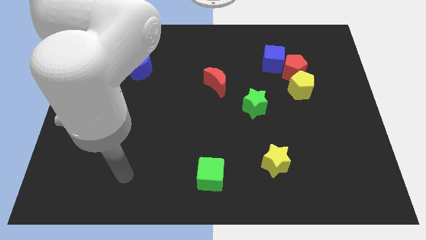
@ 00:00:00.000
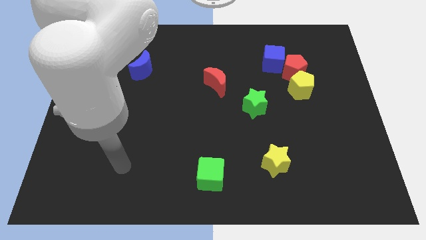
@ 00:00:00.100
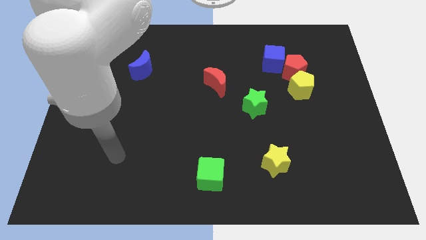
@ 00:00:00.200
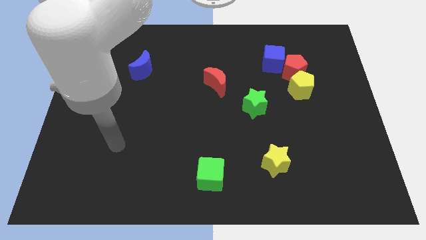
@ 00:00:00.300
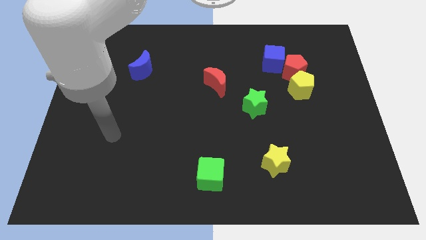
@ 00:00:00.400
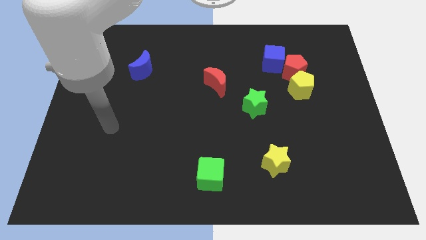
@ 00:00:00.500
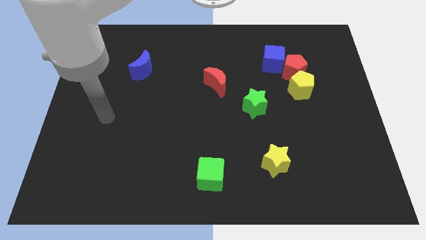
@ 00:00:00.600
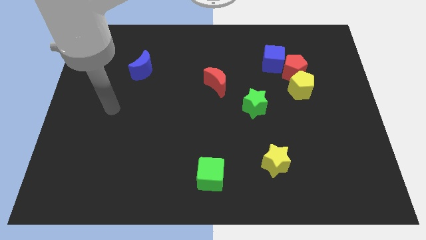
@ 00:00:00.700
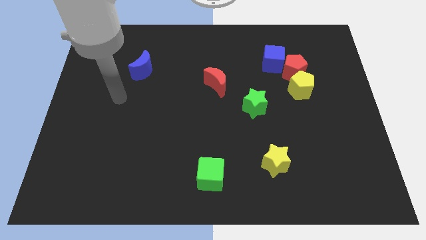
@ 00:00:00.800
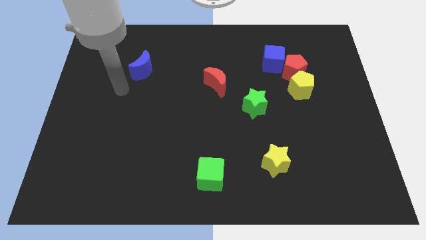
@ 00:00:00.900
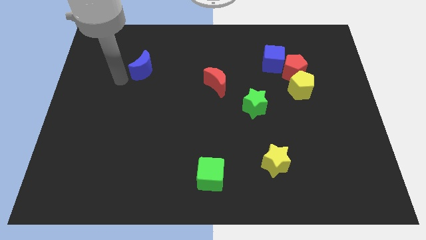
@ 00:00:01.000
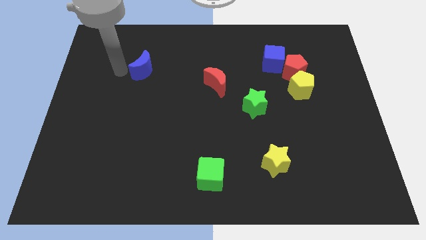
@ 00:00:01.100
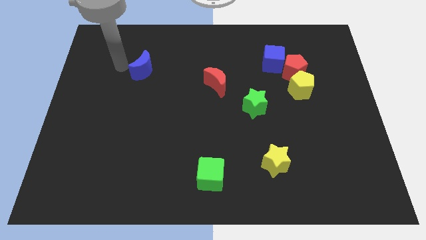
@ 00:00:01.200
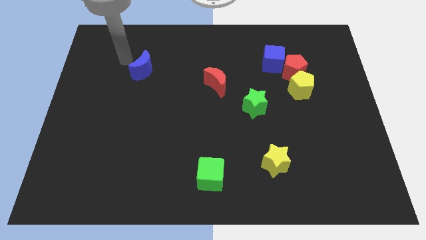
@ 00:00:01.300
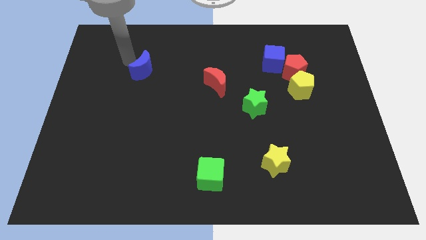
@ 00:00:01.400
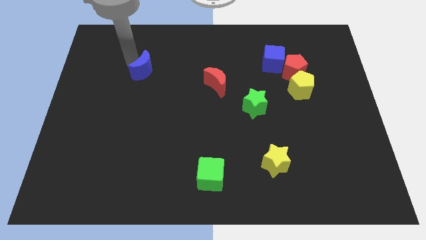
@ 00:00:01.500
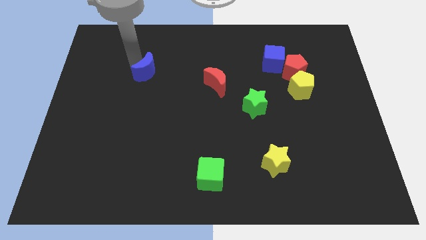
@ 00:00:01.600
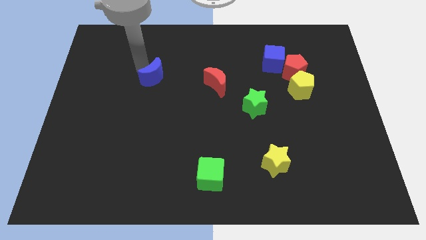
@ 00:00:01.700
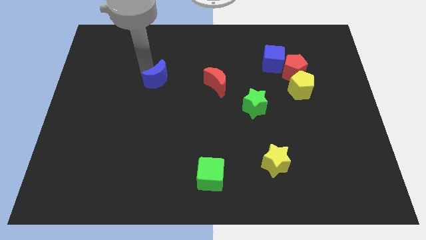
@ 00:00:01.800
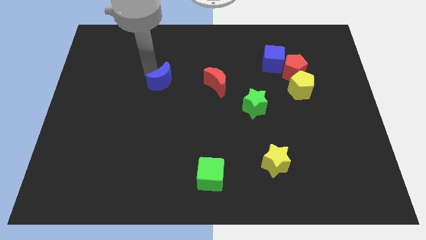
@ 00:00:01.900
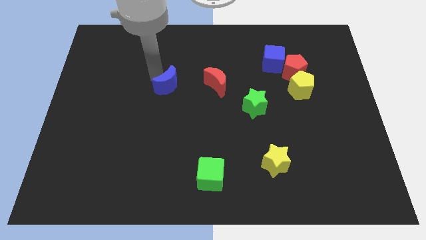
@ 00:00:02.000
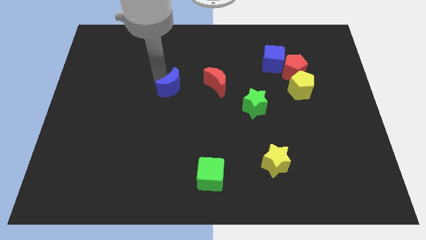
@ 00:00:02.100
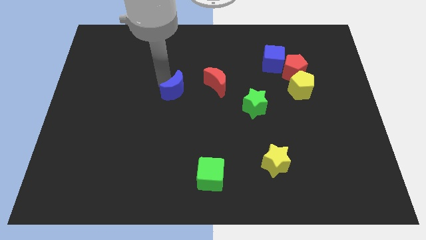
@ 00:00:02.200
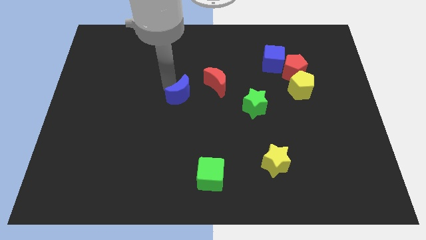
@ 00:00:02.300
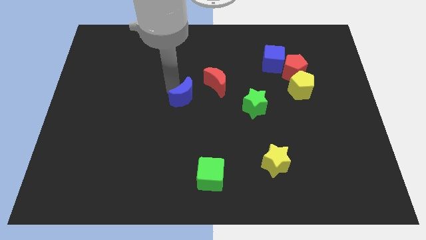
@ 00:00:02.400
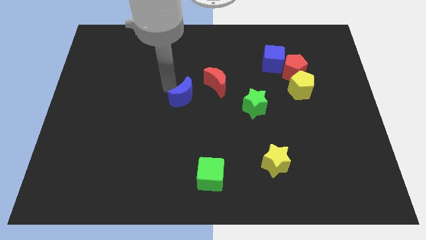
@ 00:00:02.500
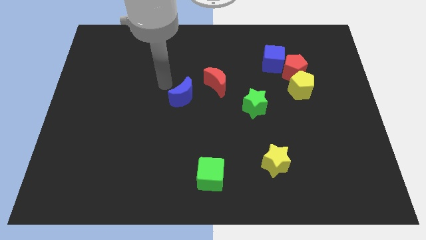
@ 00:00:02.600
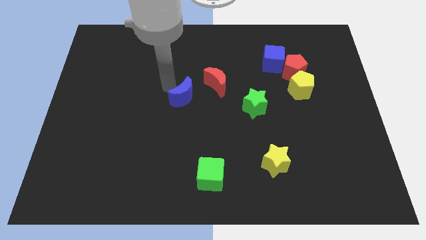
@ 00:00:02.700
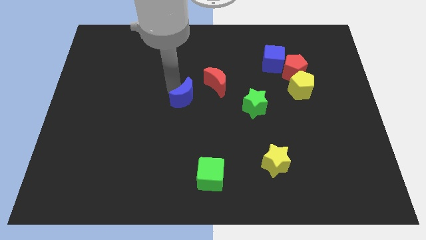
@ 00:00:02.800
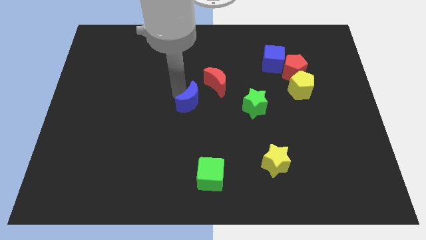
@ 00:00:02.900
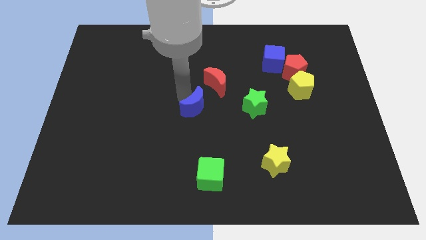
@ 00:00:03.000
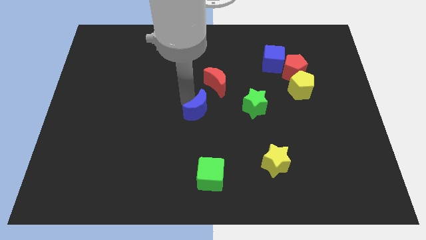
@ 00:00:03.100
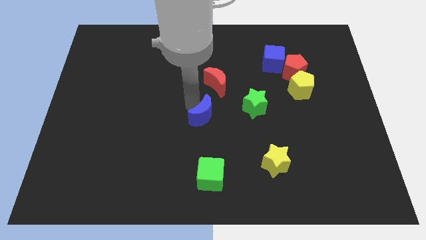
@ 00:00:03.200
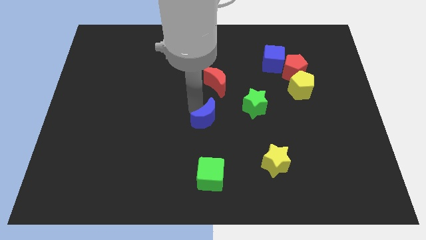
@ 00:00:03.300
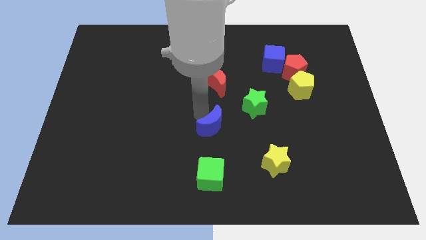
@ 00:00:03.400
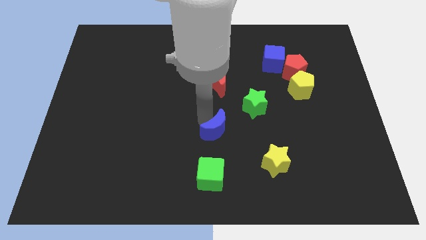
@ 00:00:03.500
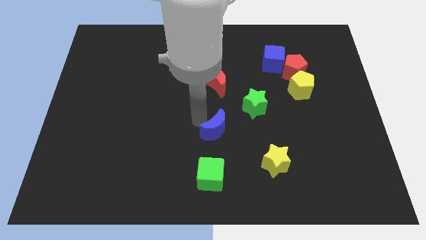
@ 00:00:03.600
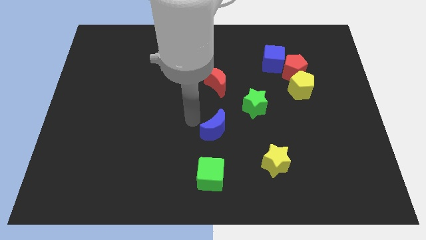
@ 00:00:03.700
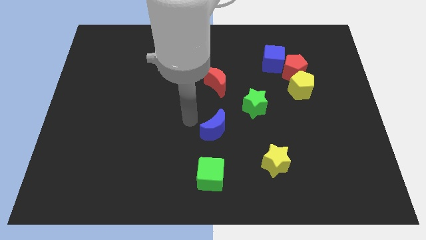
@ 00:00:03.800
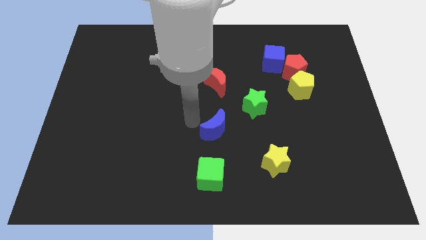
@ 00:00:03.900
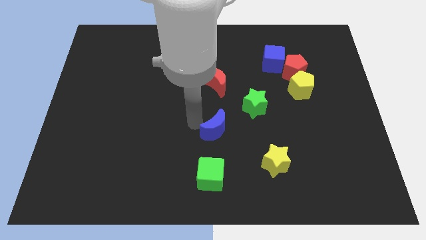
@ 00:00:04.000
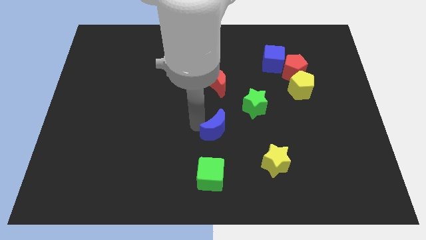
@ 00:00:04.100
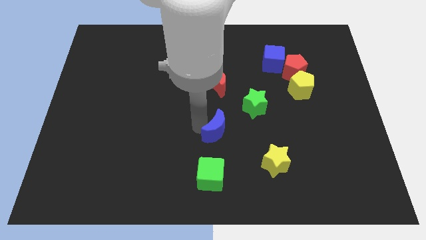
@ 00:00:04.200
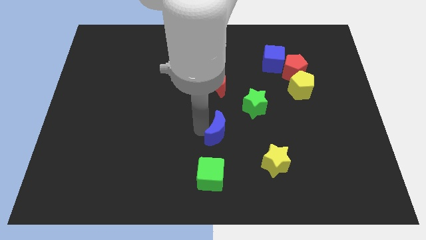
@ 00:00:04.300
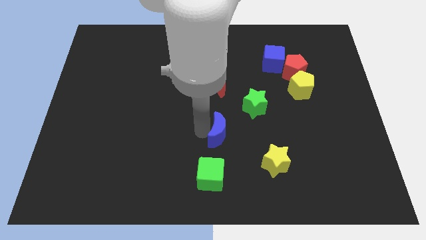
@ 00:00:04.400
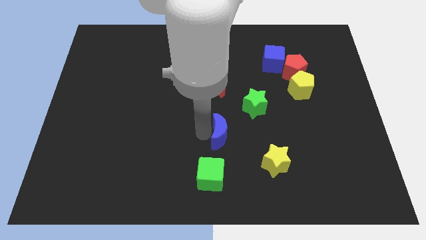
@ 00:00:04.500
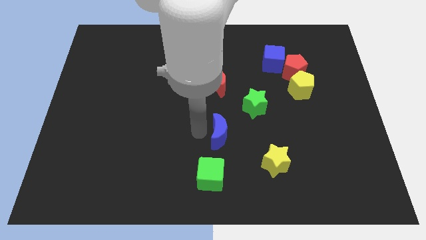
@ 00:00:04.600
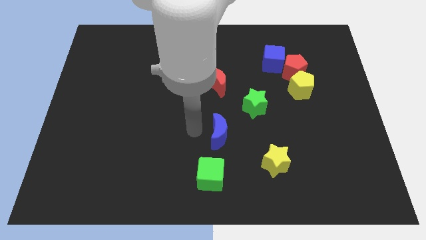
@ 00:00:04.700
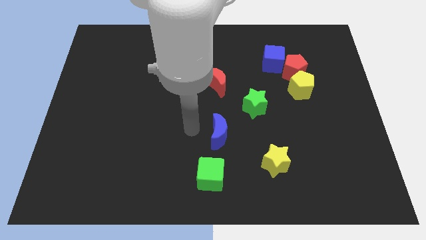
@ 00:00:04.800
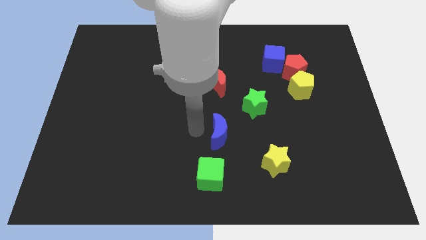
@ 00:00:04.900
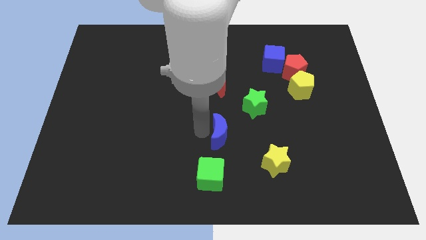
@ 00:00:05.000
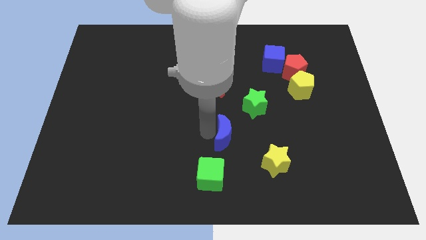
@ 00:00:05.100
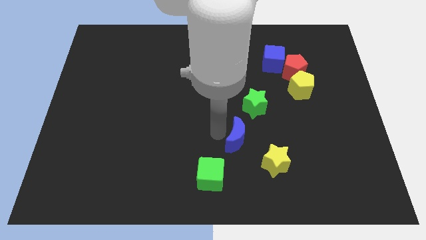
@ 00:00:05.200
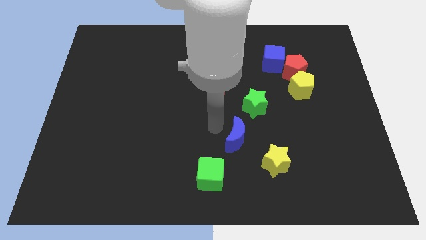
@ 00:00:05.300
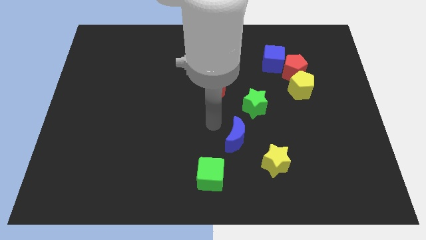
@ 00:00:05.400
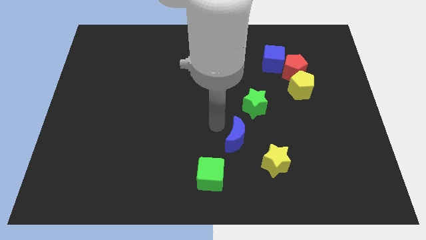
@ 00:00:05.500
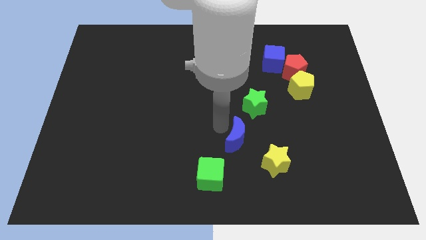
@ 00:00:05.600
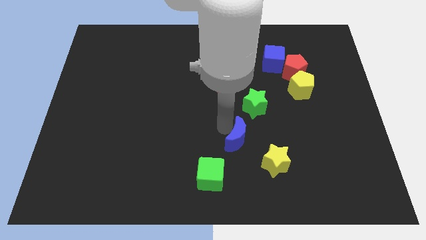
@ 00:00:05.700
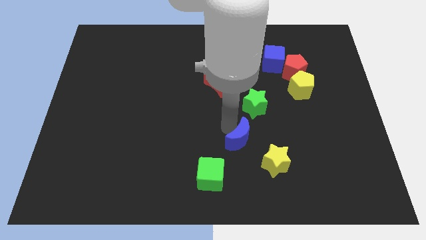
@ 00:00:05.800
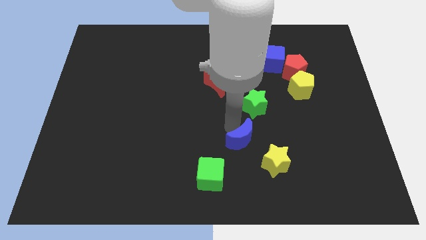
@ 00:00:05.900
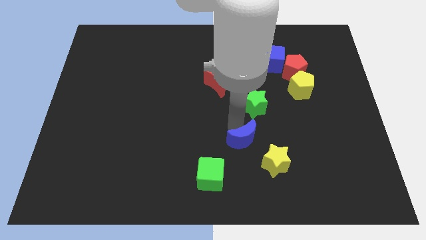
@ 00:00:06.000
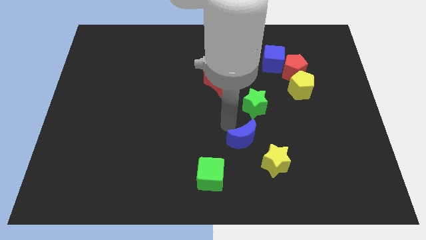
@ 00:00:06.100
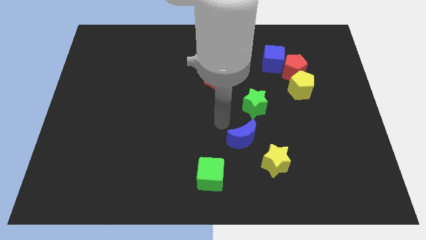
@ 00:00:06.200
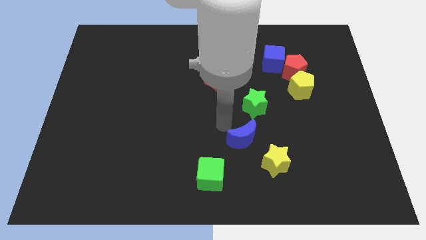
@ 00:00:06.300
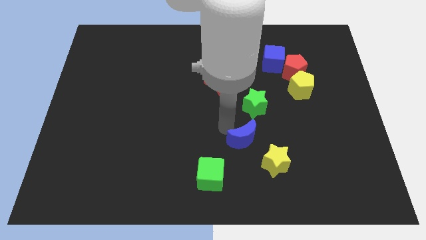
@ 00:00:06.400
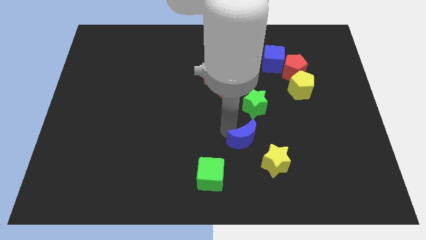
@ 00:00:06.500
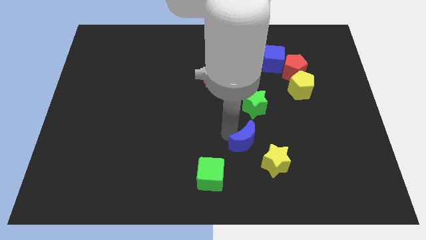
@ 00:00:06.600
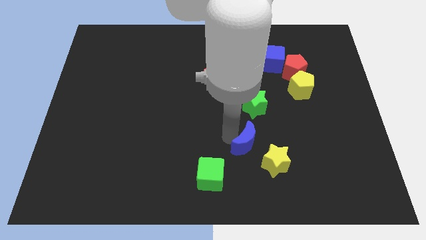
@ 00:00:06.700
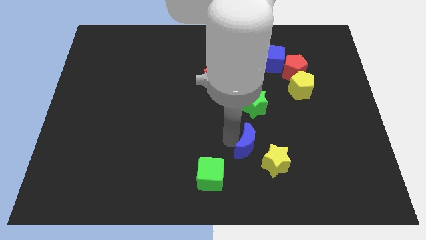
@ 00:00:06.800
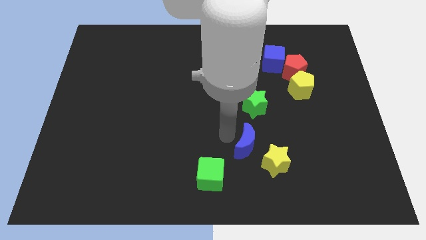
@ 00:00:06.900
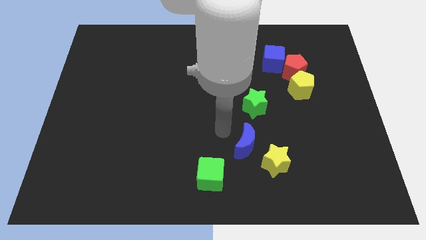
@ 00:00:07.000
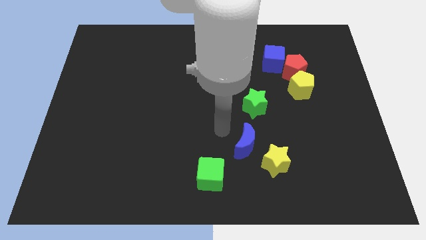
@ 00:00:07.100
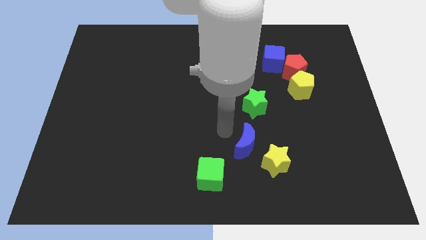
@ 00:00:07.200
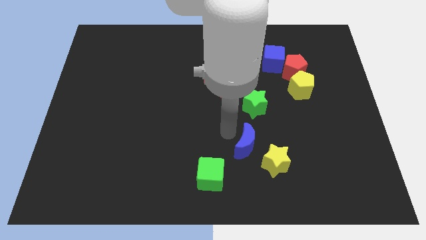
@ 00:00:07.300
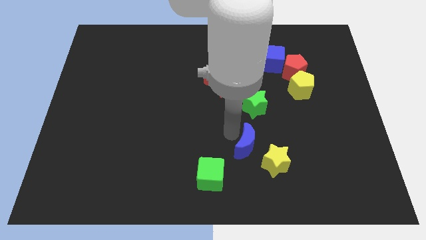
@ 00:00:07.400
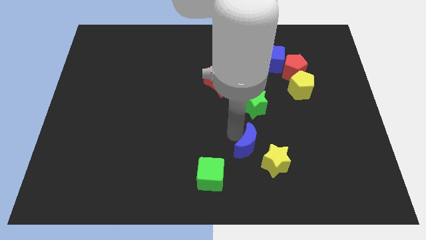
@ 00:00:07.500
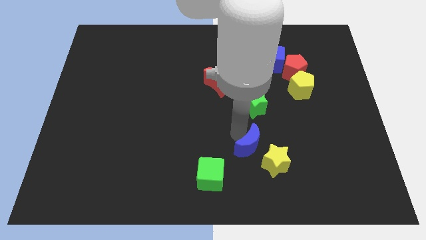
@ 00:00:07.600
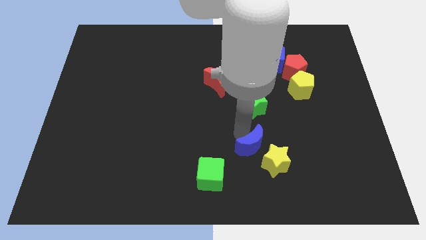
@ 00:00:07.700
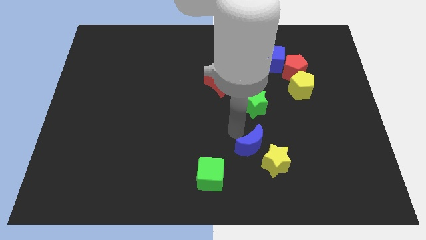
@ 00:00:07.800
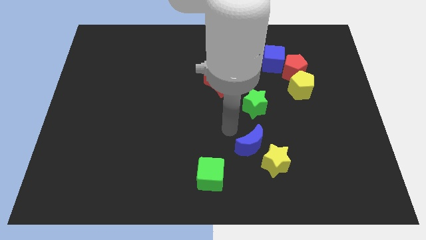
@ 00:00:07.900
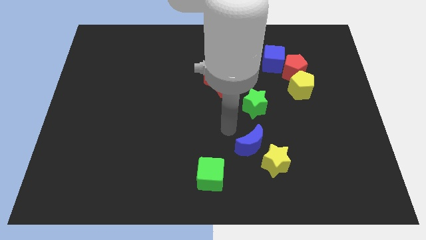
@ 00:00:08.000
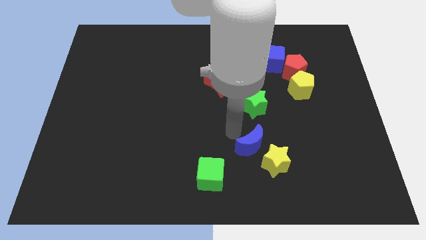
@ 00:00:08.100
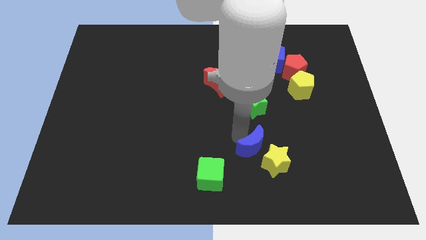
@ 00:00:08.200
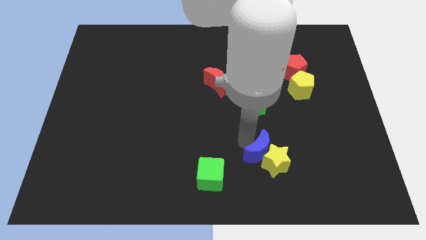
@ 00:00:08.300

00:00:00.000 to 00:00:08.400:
slide the blue moon next to the yellow star
